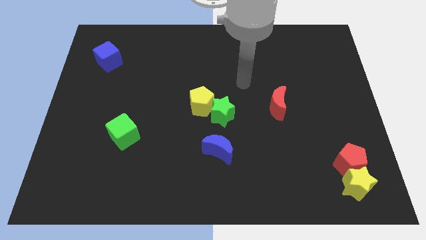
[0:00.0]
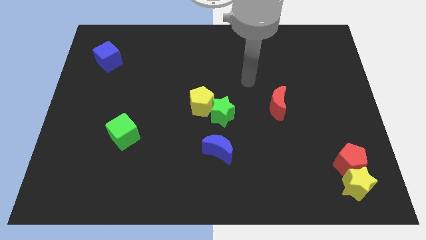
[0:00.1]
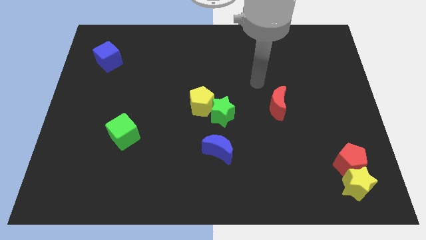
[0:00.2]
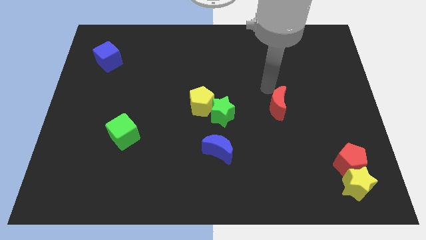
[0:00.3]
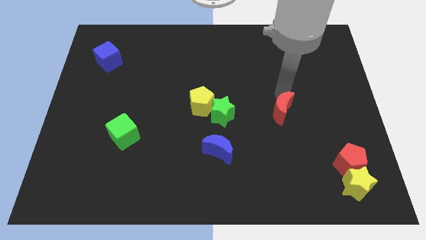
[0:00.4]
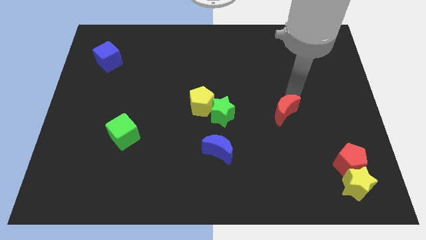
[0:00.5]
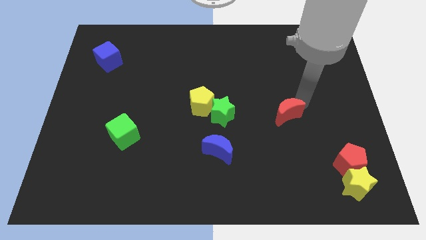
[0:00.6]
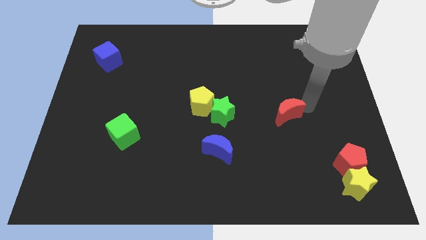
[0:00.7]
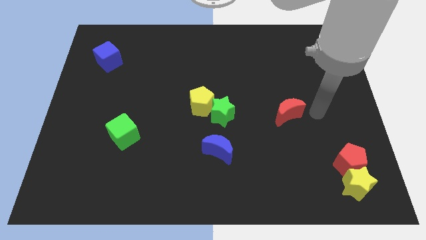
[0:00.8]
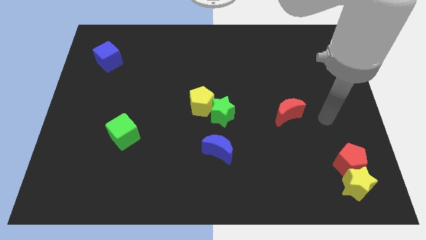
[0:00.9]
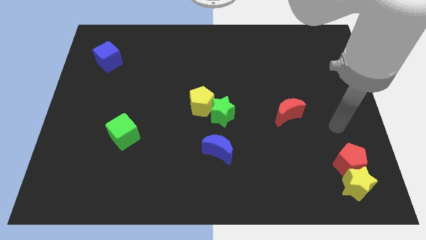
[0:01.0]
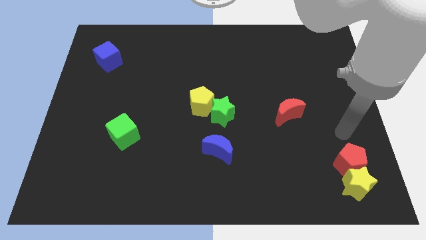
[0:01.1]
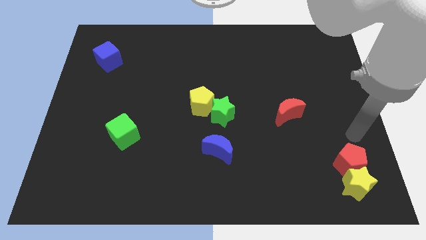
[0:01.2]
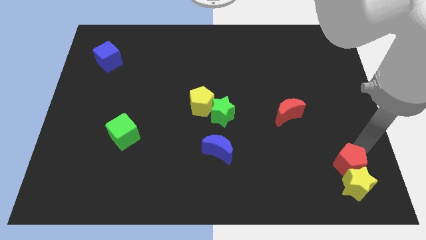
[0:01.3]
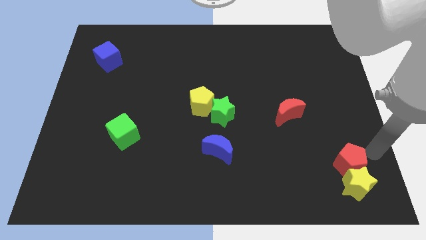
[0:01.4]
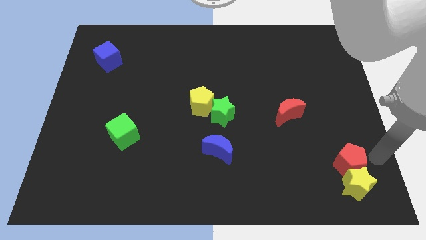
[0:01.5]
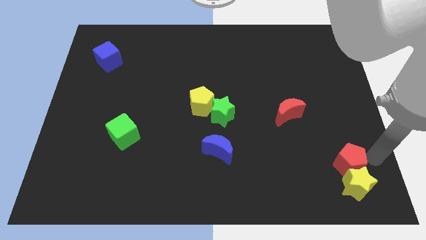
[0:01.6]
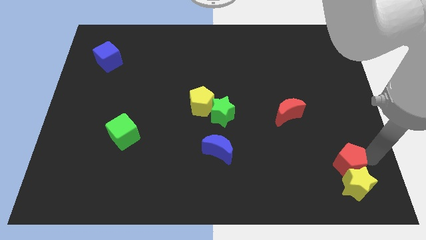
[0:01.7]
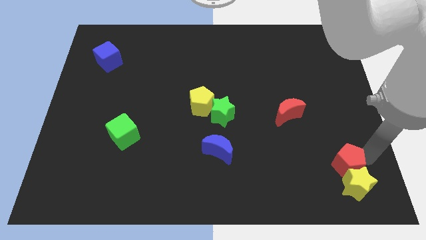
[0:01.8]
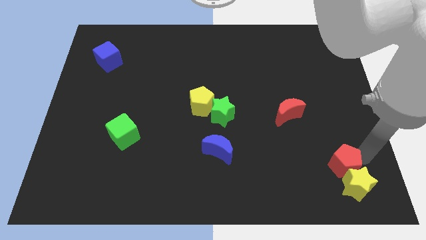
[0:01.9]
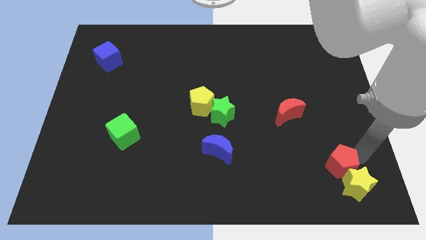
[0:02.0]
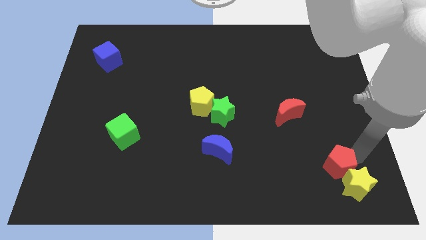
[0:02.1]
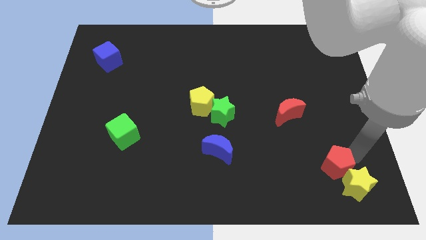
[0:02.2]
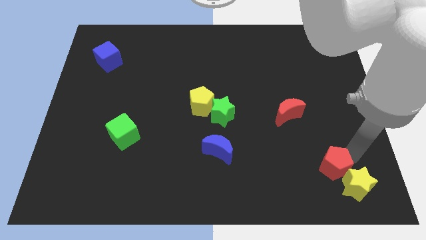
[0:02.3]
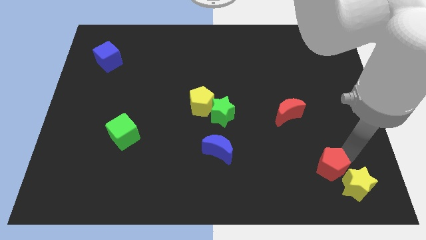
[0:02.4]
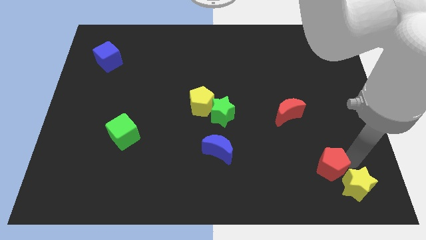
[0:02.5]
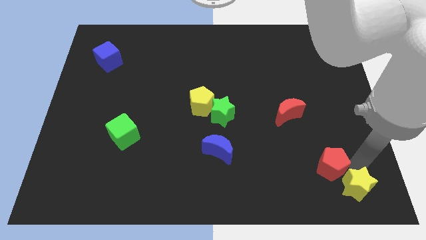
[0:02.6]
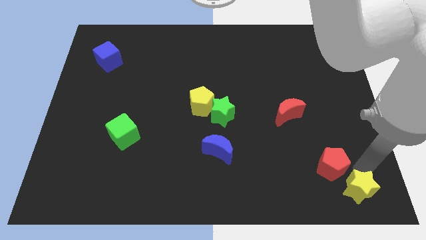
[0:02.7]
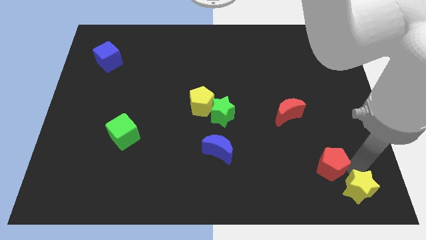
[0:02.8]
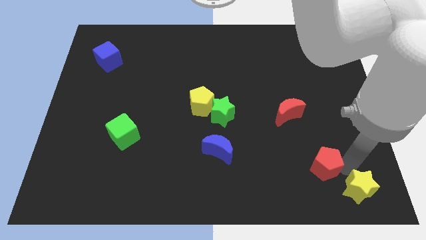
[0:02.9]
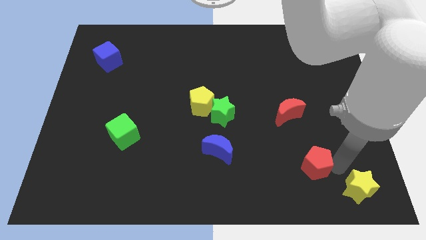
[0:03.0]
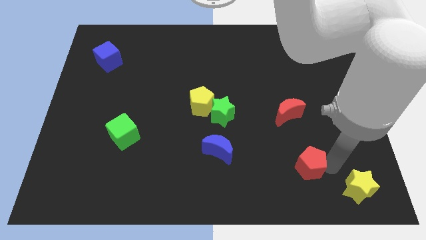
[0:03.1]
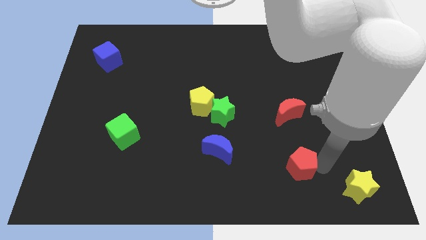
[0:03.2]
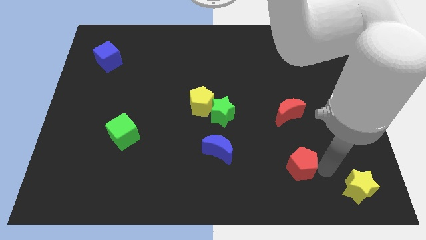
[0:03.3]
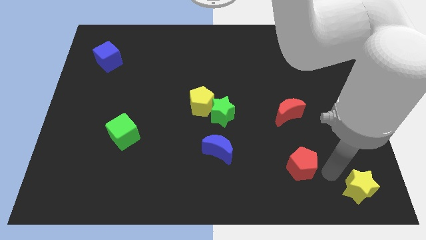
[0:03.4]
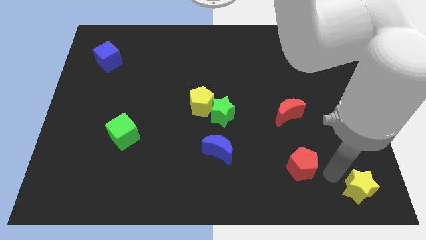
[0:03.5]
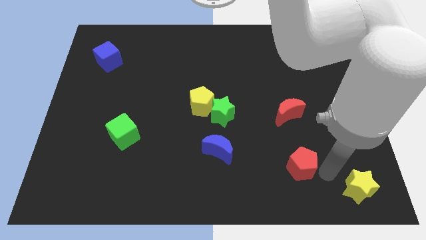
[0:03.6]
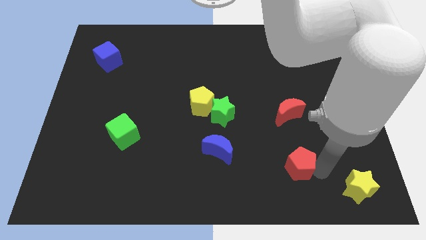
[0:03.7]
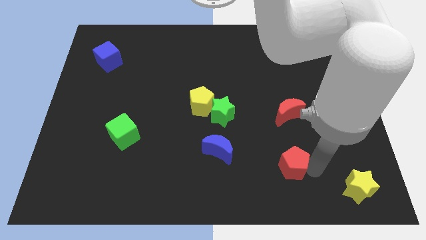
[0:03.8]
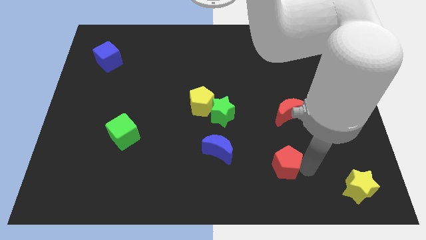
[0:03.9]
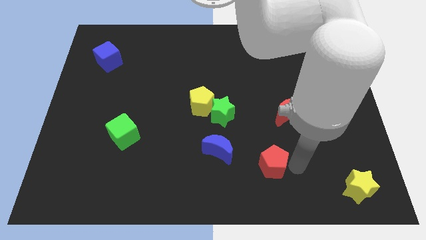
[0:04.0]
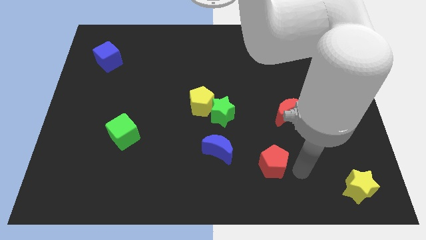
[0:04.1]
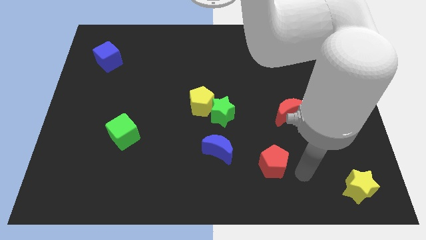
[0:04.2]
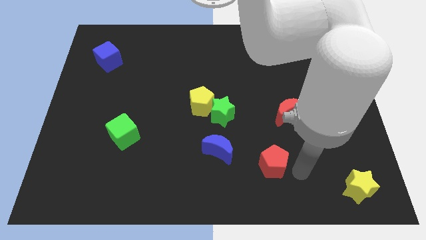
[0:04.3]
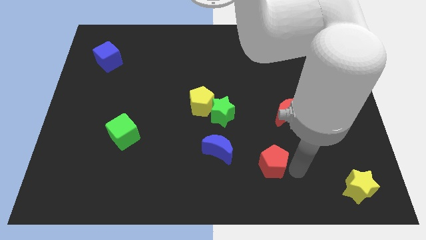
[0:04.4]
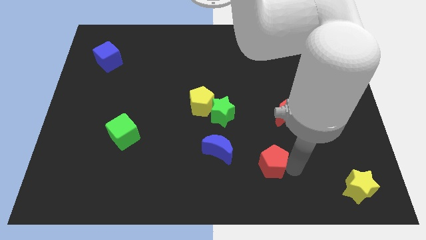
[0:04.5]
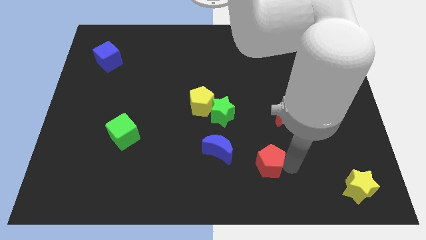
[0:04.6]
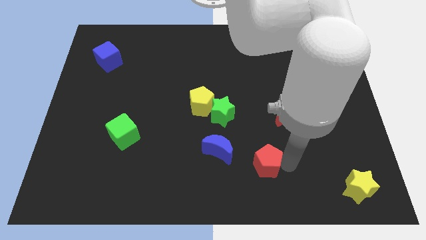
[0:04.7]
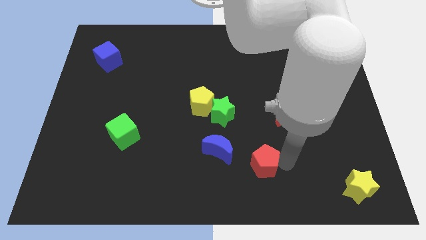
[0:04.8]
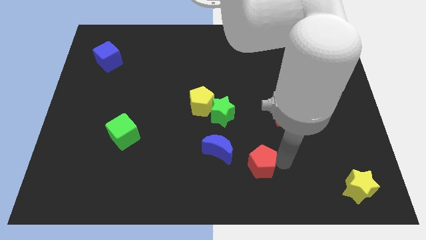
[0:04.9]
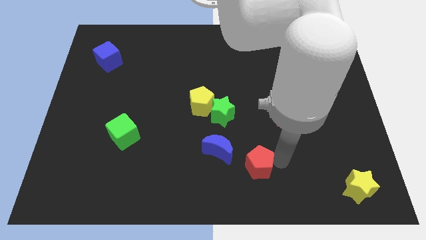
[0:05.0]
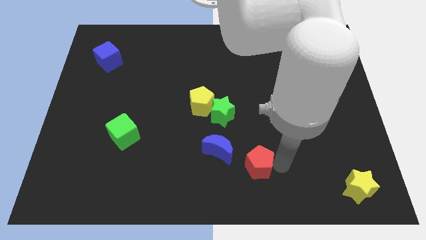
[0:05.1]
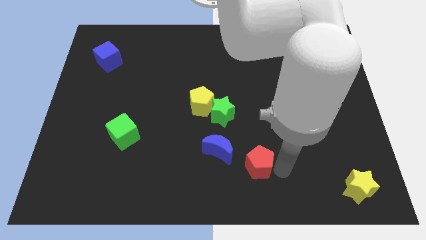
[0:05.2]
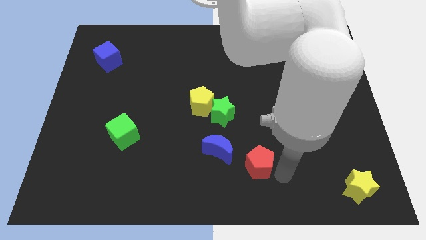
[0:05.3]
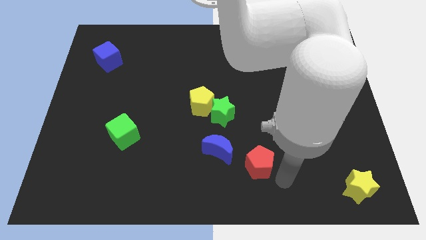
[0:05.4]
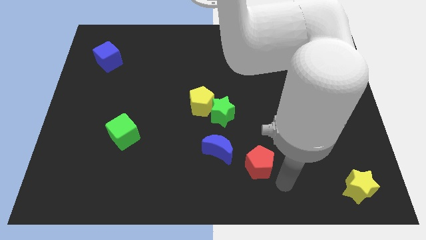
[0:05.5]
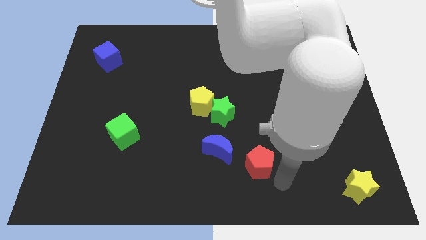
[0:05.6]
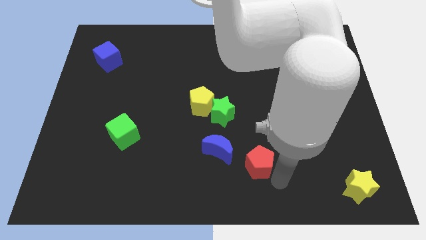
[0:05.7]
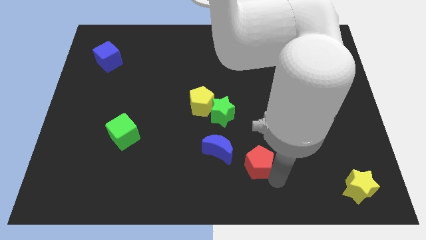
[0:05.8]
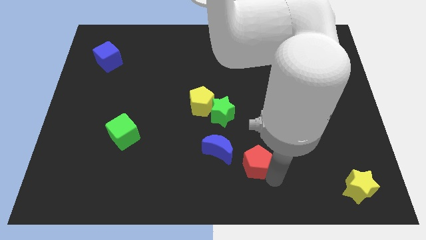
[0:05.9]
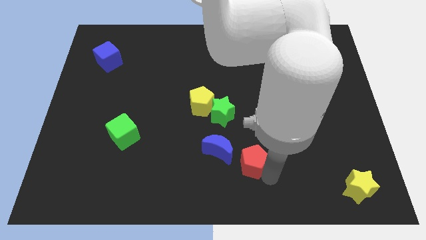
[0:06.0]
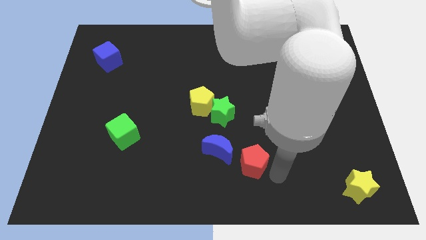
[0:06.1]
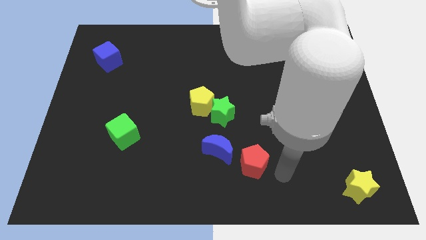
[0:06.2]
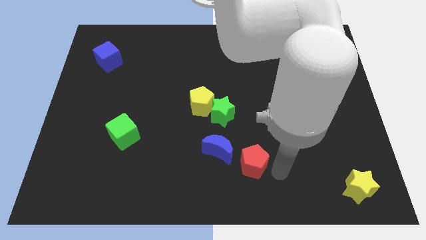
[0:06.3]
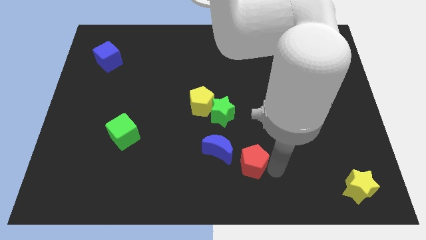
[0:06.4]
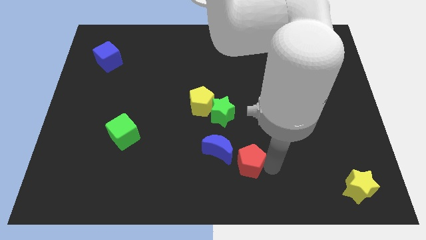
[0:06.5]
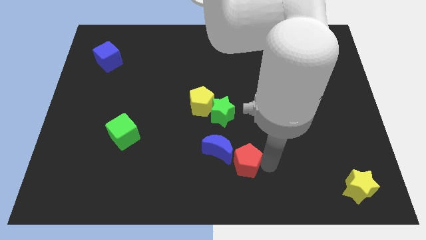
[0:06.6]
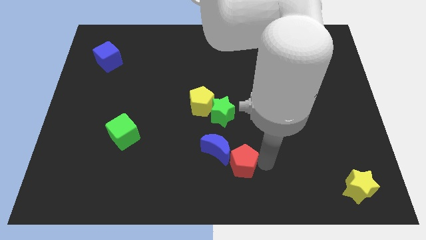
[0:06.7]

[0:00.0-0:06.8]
put the red pentagon to the blue moon
